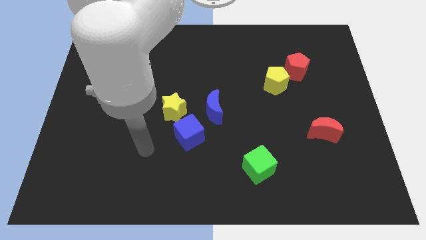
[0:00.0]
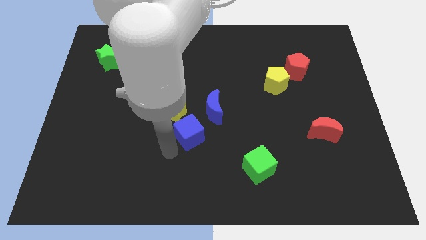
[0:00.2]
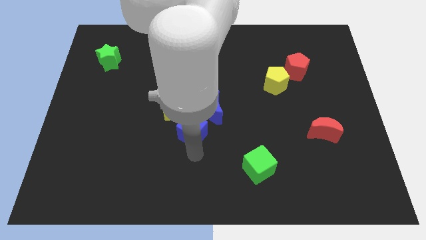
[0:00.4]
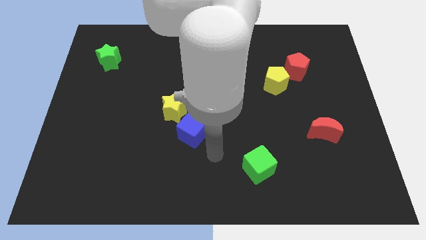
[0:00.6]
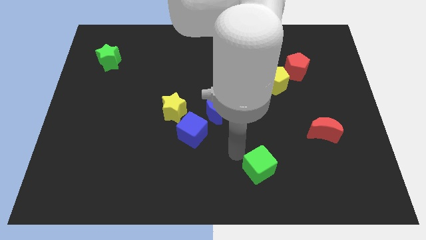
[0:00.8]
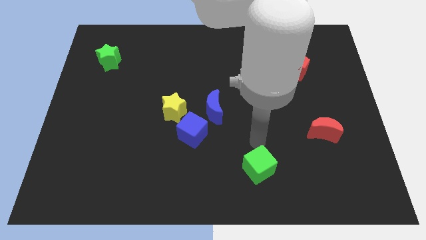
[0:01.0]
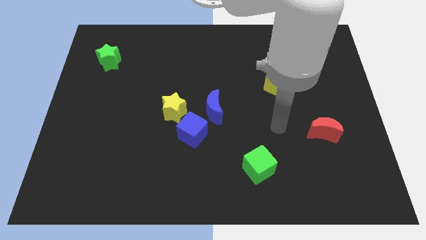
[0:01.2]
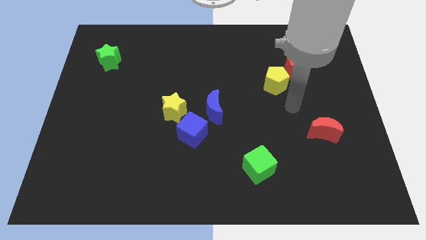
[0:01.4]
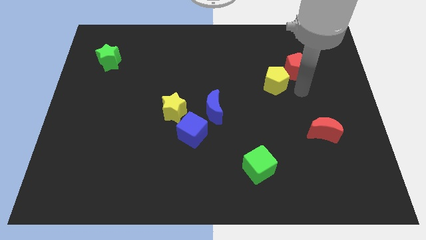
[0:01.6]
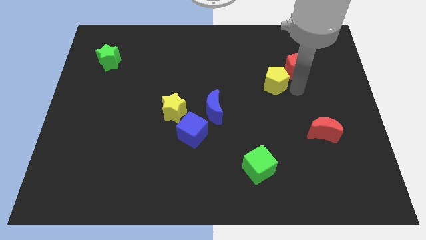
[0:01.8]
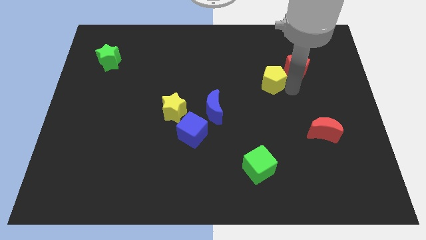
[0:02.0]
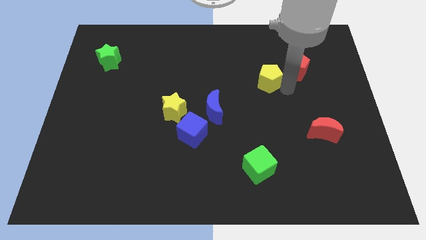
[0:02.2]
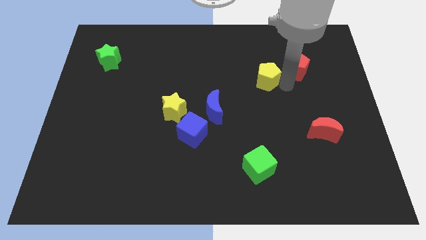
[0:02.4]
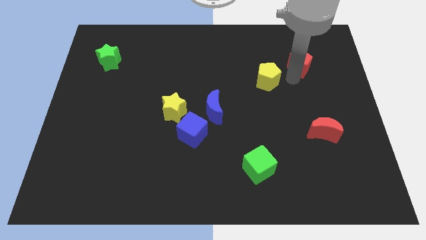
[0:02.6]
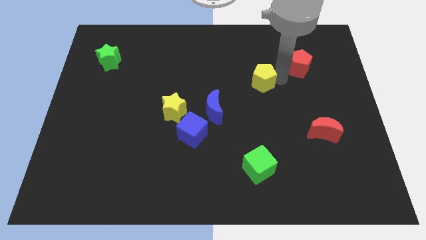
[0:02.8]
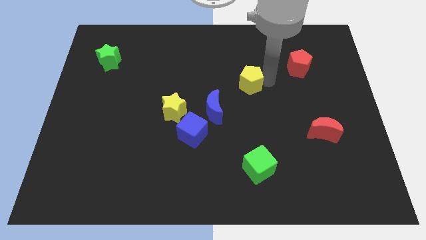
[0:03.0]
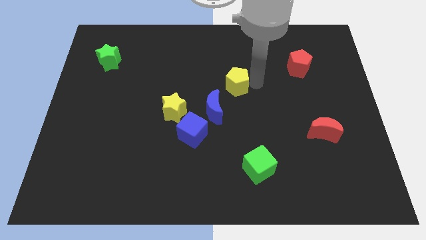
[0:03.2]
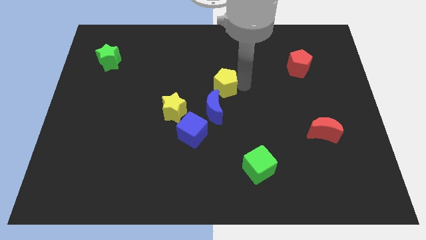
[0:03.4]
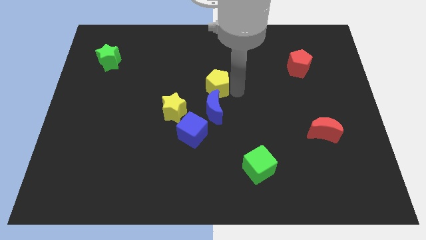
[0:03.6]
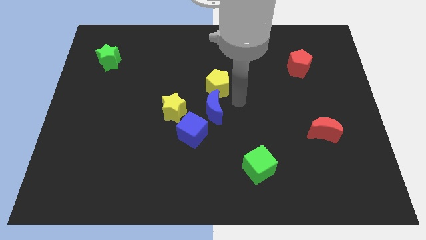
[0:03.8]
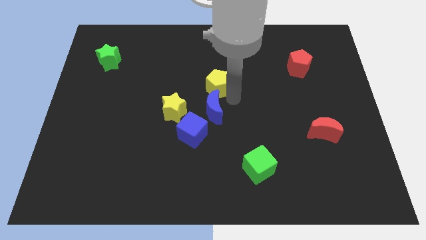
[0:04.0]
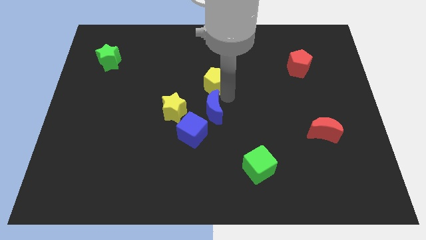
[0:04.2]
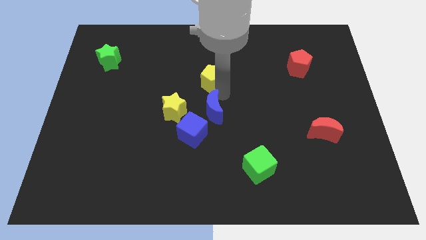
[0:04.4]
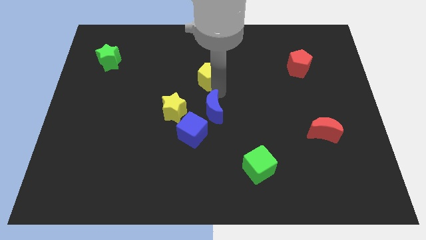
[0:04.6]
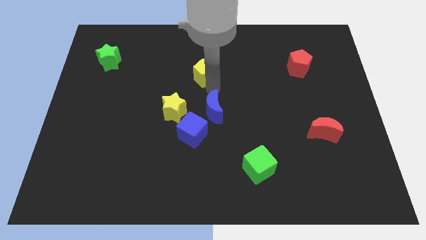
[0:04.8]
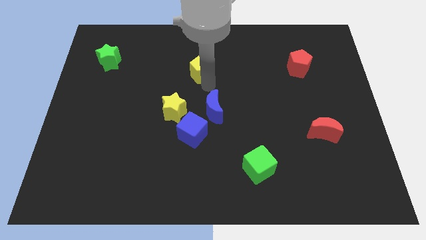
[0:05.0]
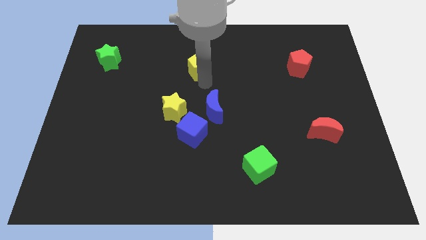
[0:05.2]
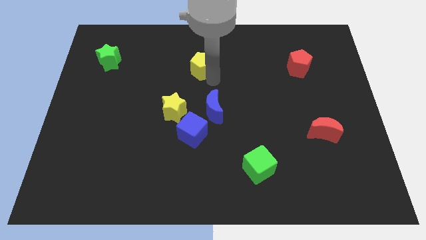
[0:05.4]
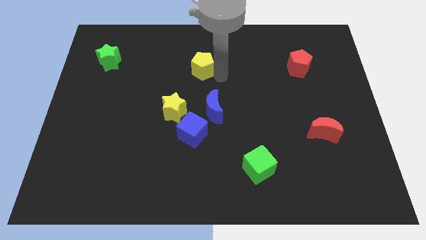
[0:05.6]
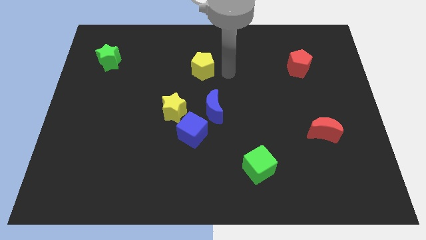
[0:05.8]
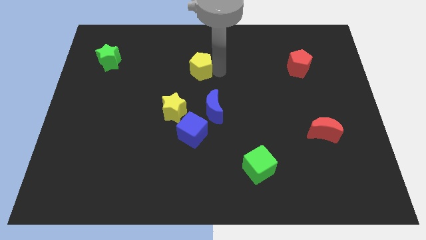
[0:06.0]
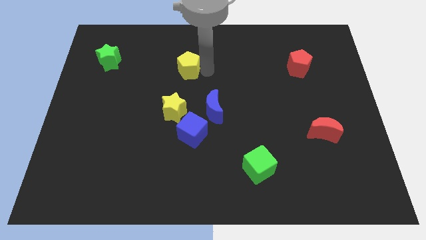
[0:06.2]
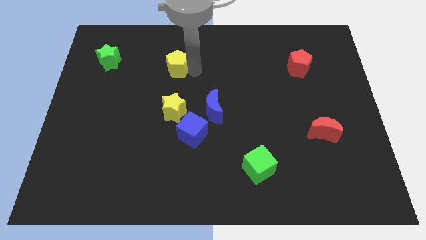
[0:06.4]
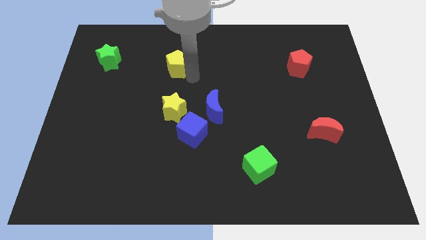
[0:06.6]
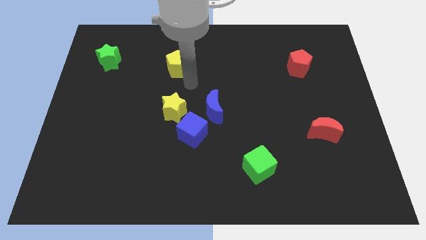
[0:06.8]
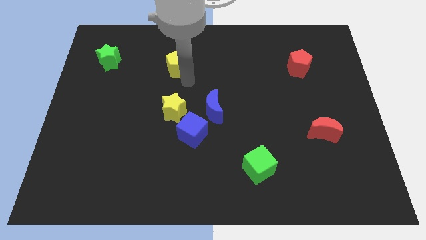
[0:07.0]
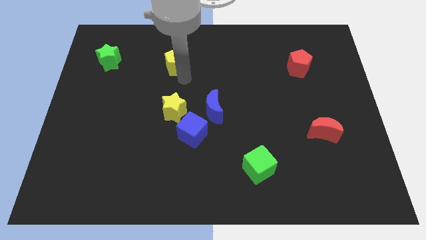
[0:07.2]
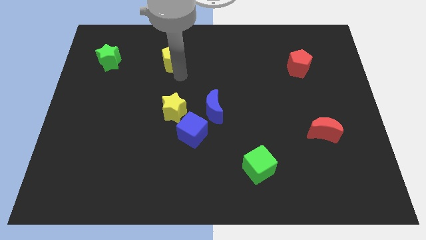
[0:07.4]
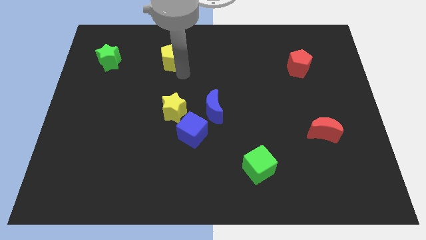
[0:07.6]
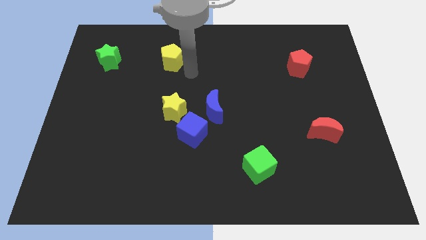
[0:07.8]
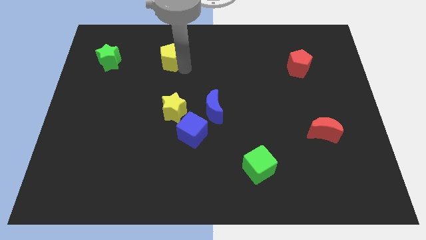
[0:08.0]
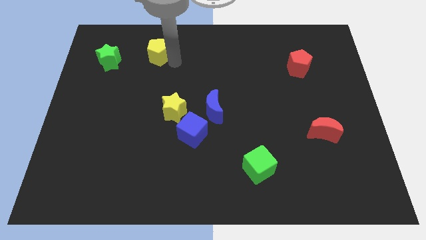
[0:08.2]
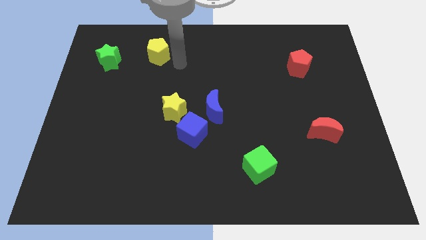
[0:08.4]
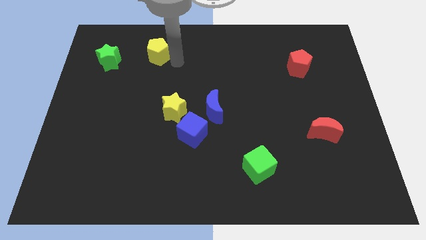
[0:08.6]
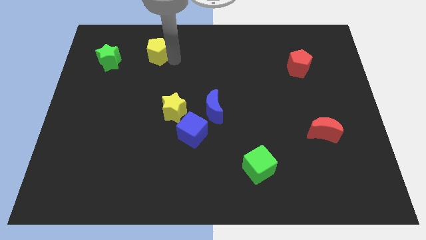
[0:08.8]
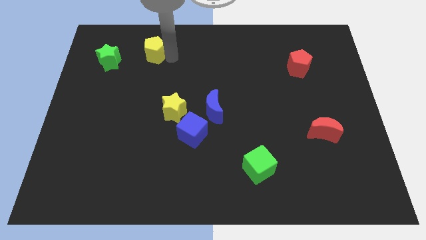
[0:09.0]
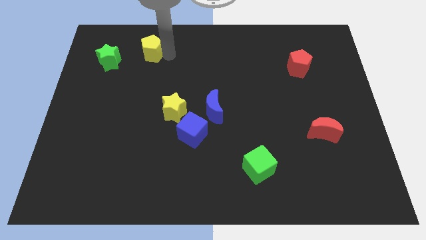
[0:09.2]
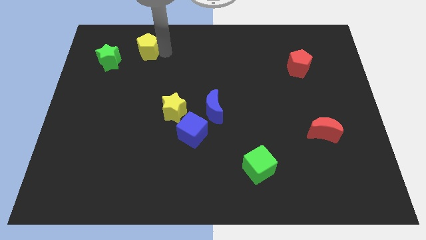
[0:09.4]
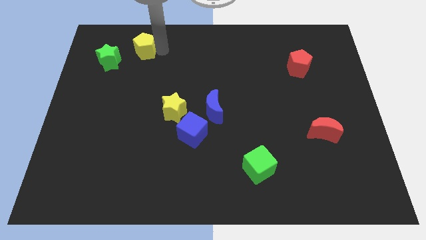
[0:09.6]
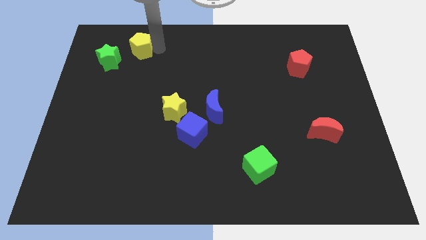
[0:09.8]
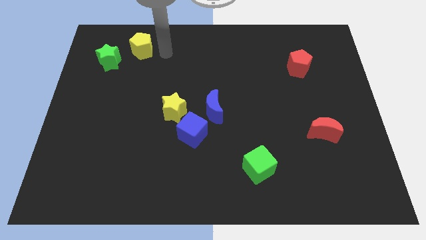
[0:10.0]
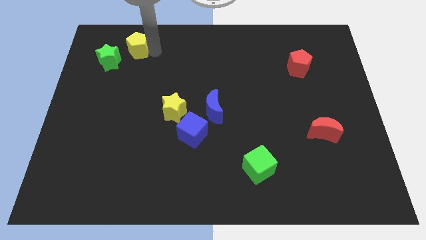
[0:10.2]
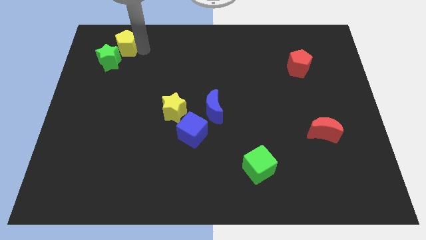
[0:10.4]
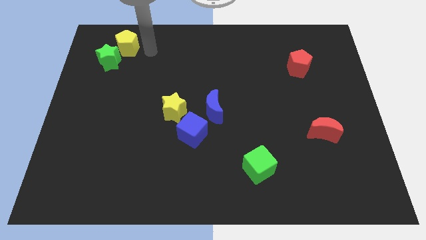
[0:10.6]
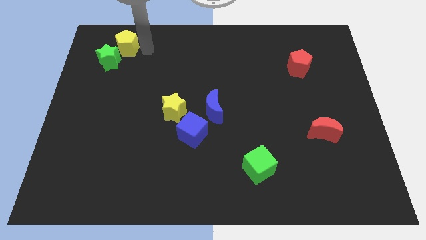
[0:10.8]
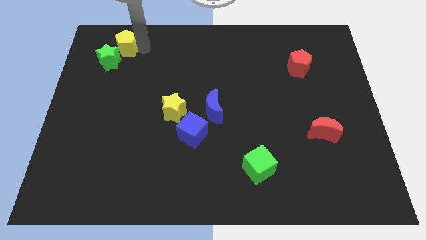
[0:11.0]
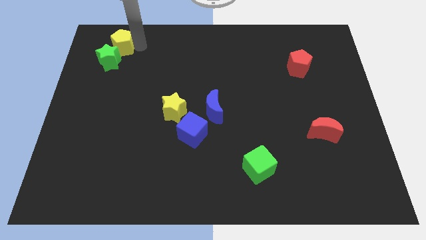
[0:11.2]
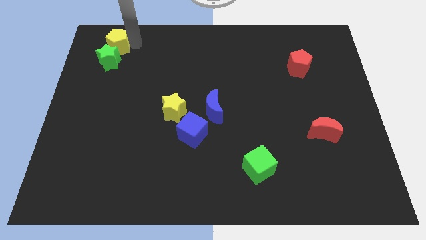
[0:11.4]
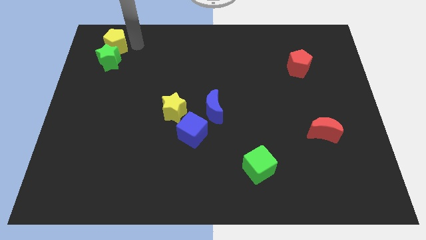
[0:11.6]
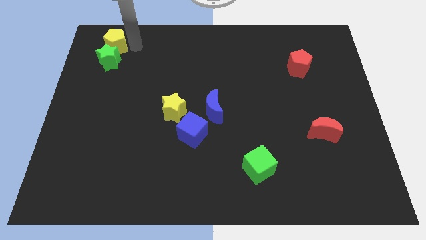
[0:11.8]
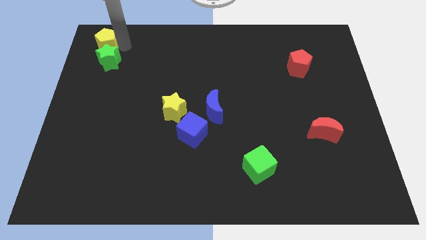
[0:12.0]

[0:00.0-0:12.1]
put the yellow pentagon to the top left of the board

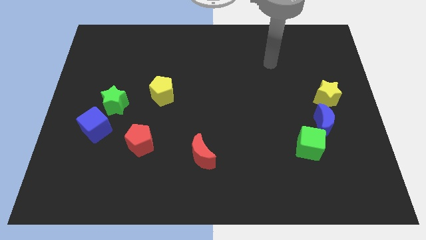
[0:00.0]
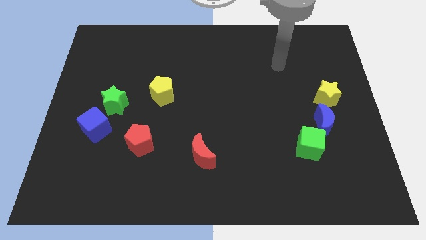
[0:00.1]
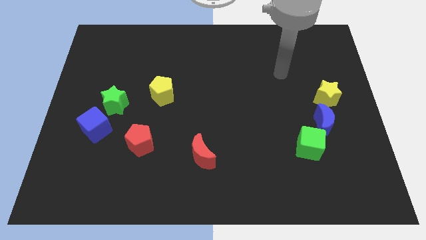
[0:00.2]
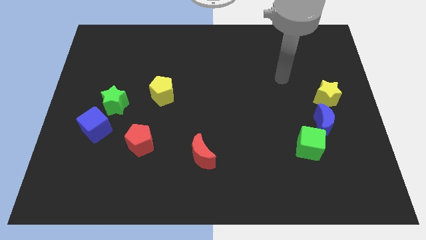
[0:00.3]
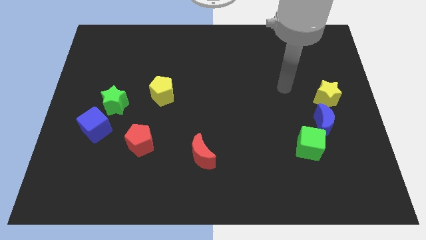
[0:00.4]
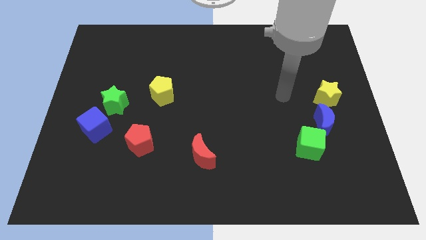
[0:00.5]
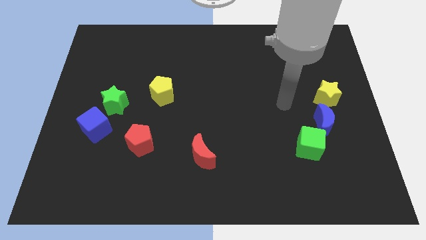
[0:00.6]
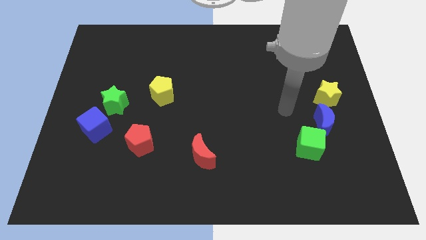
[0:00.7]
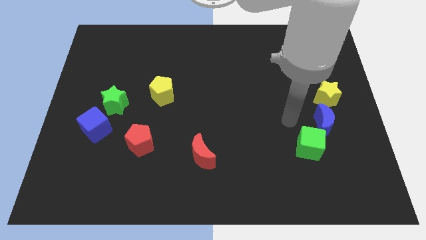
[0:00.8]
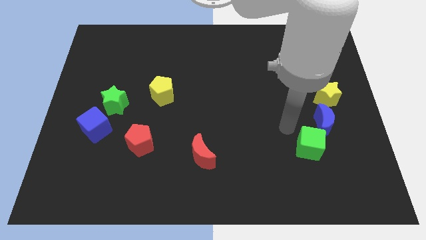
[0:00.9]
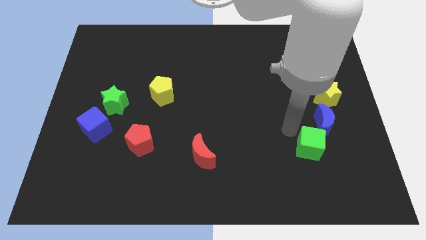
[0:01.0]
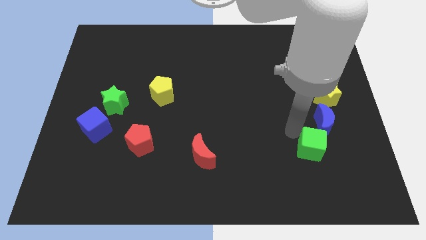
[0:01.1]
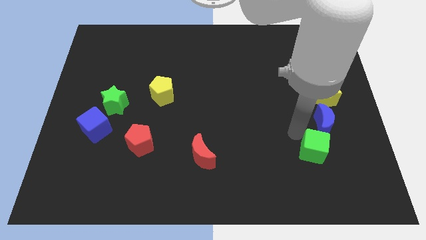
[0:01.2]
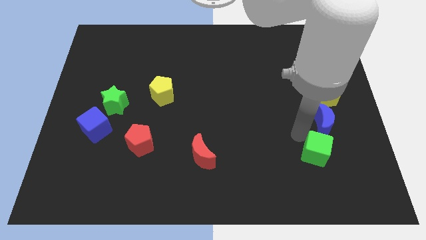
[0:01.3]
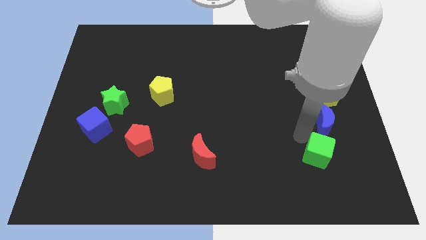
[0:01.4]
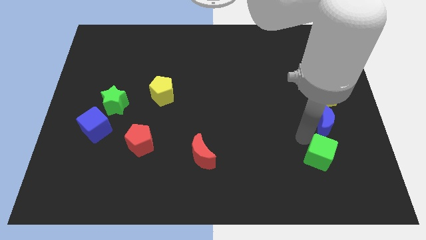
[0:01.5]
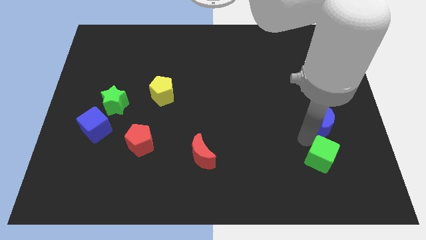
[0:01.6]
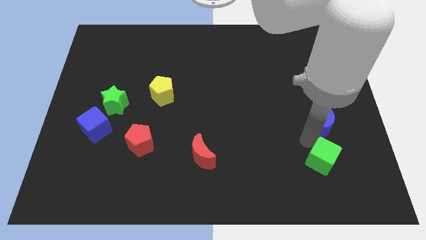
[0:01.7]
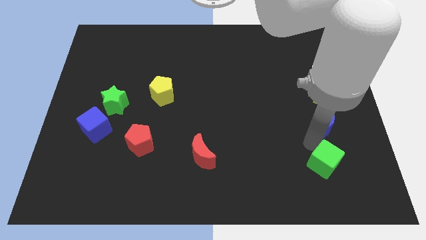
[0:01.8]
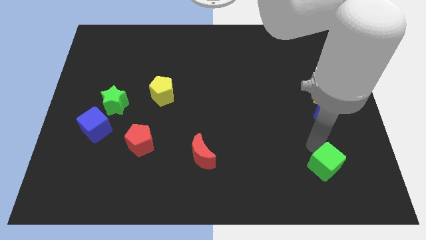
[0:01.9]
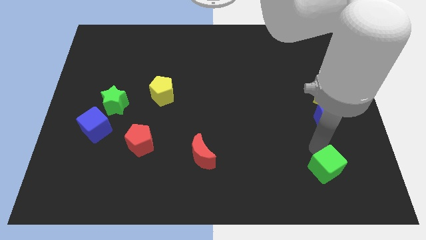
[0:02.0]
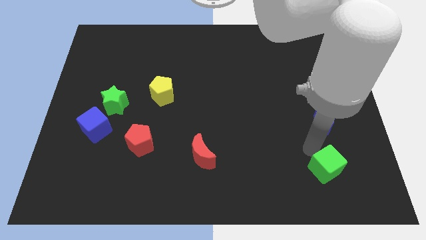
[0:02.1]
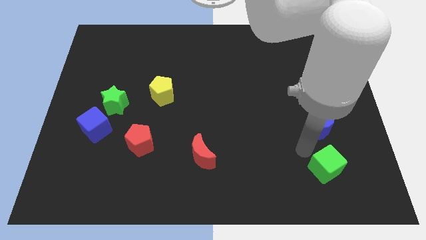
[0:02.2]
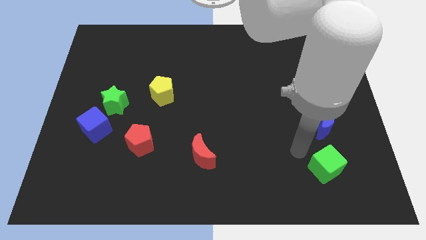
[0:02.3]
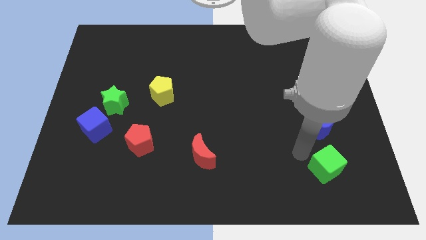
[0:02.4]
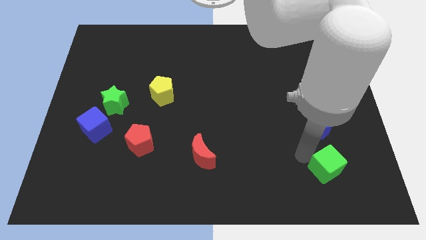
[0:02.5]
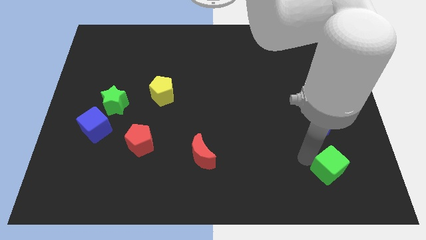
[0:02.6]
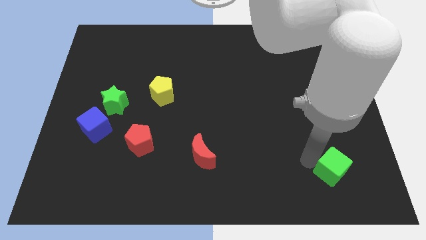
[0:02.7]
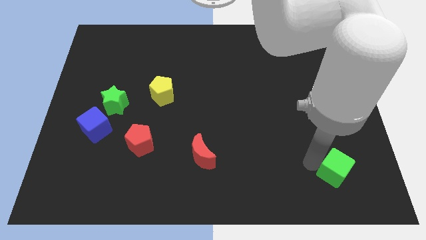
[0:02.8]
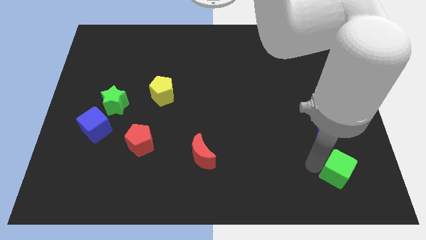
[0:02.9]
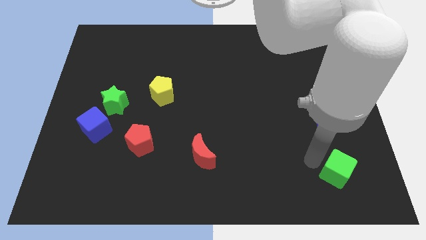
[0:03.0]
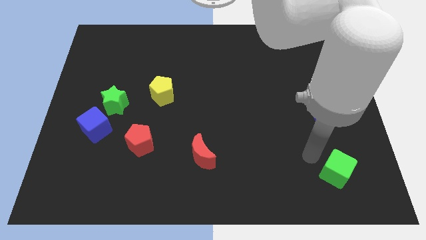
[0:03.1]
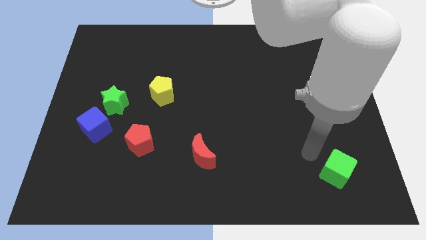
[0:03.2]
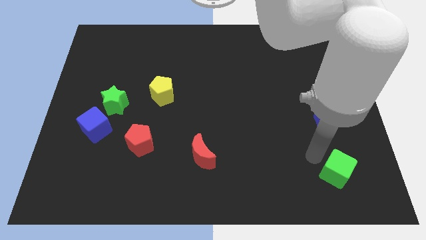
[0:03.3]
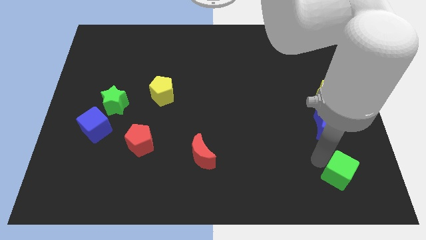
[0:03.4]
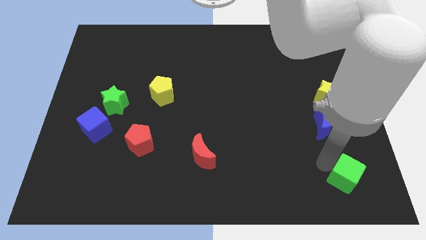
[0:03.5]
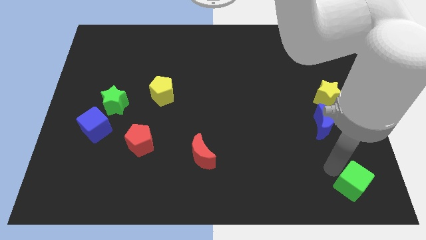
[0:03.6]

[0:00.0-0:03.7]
move the green cube to the bottom right
